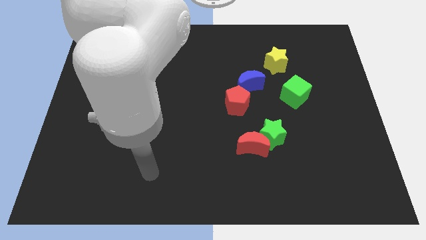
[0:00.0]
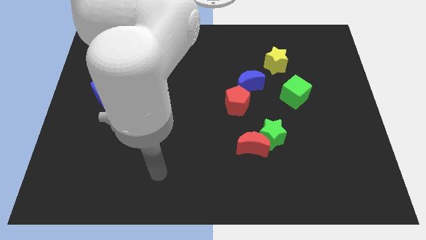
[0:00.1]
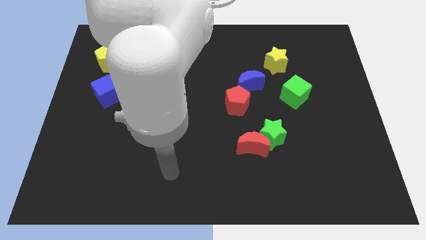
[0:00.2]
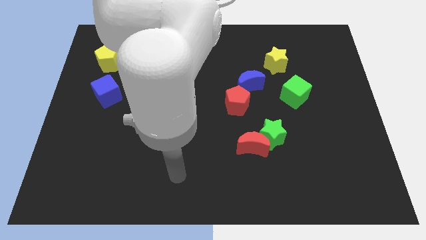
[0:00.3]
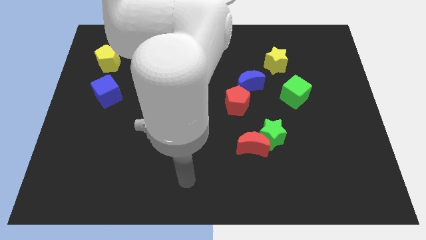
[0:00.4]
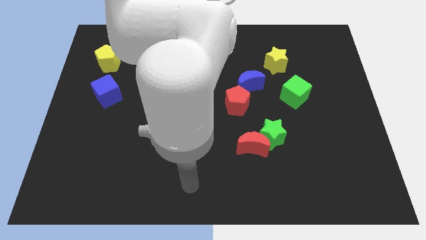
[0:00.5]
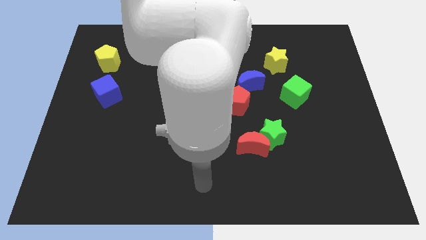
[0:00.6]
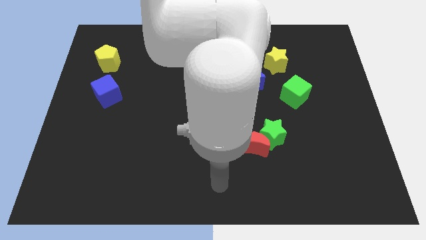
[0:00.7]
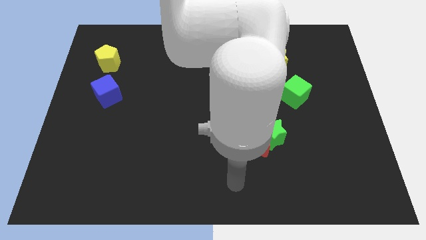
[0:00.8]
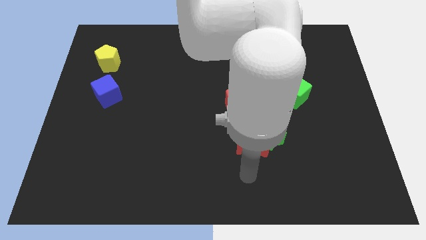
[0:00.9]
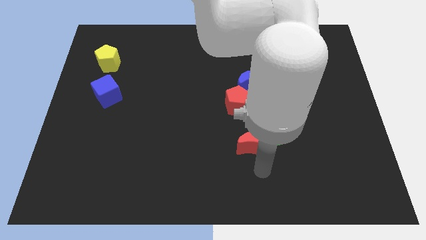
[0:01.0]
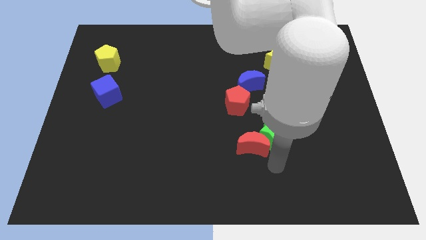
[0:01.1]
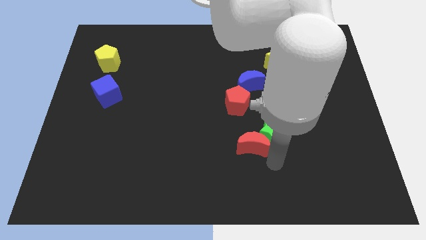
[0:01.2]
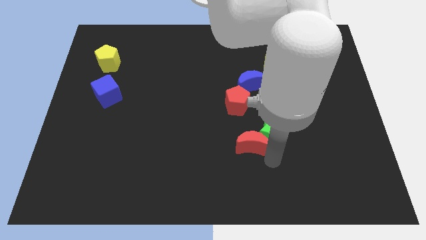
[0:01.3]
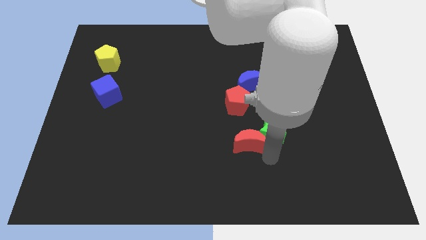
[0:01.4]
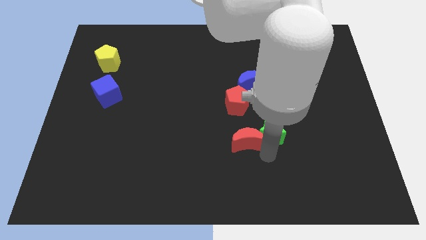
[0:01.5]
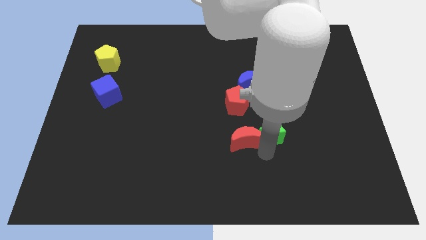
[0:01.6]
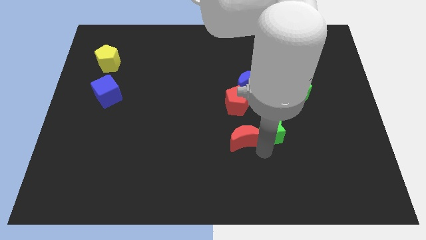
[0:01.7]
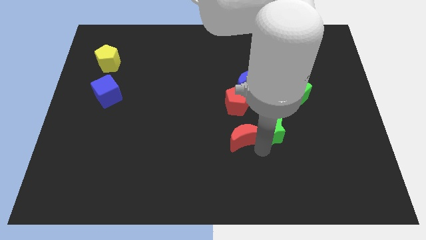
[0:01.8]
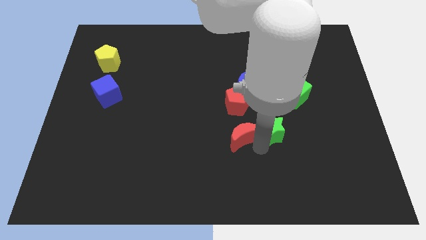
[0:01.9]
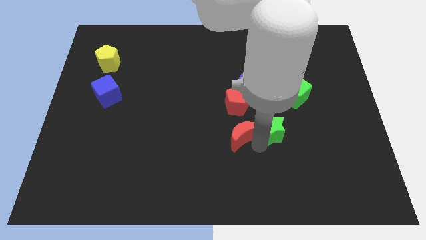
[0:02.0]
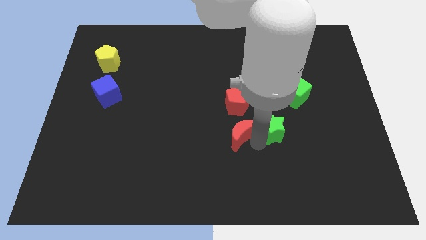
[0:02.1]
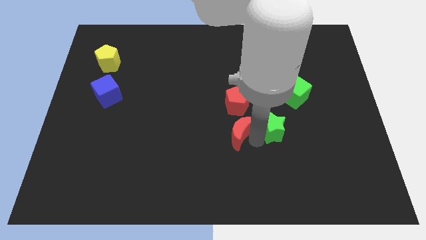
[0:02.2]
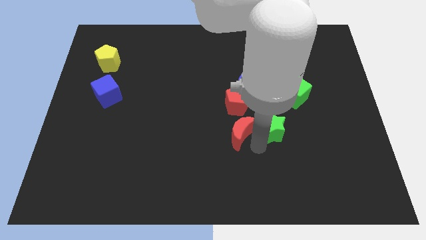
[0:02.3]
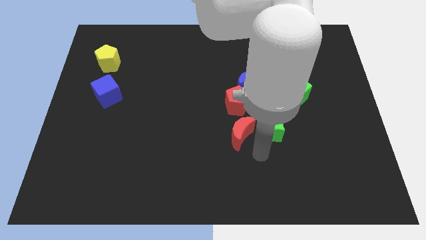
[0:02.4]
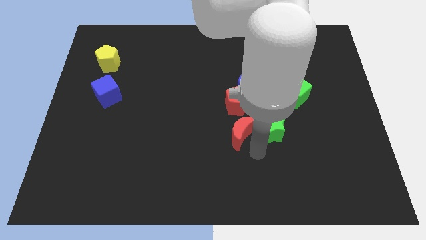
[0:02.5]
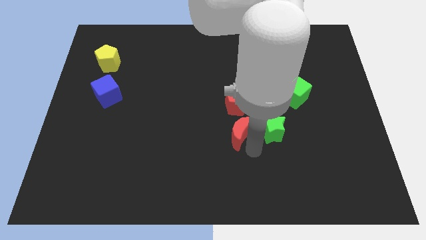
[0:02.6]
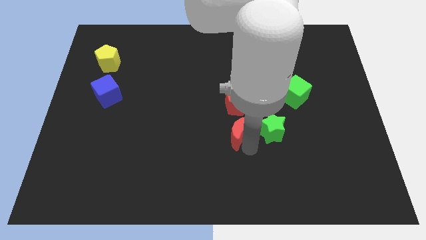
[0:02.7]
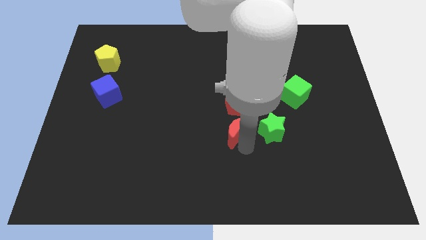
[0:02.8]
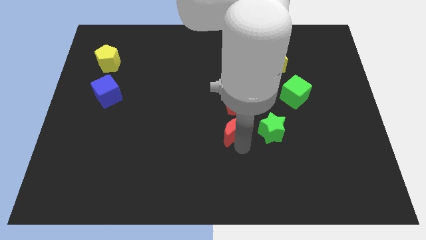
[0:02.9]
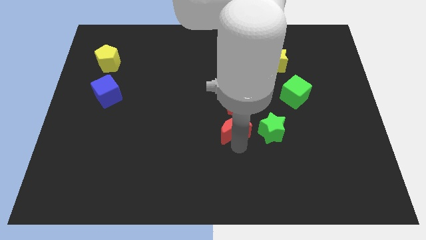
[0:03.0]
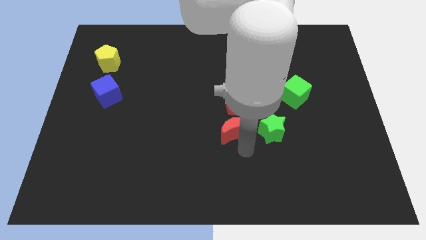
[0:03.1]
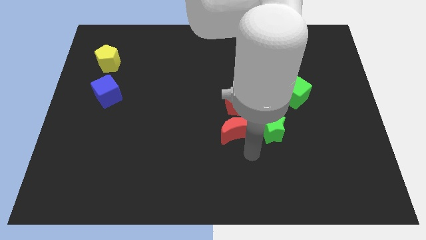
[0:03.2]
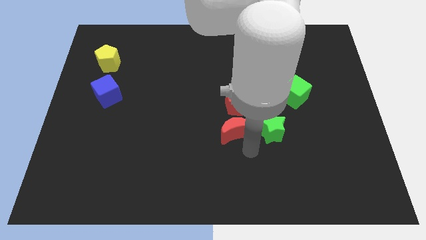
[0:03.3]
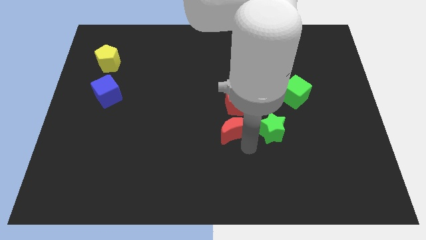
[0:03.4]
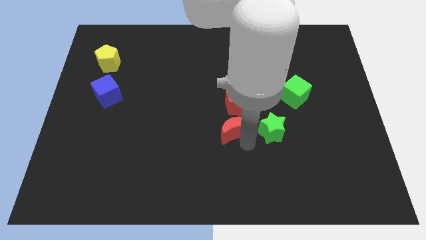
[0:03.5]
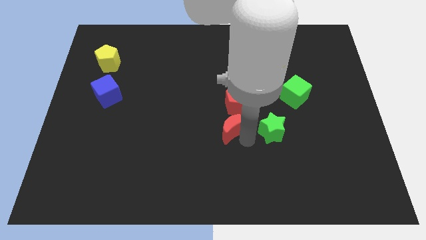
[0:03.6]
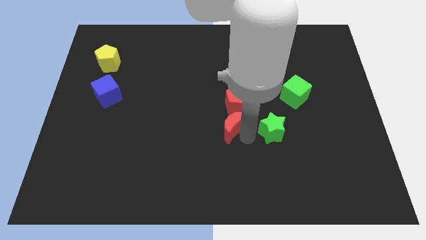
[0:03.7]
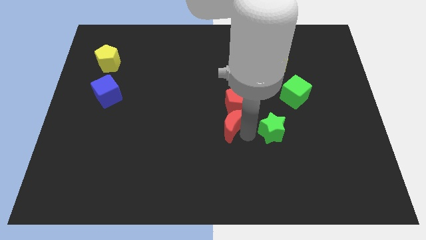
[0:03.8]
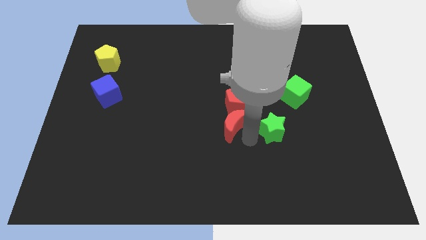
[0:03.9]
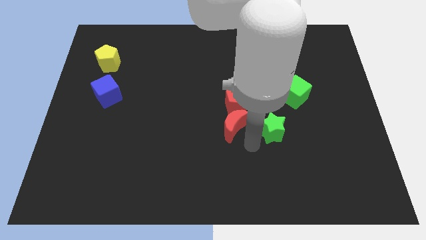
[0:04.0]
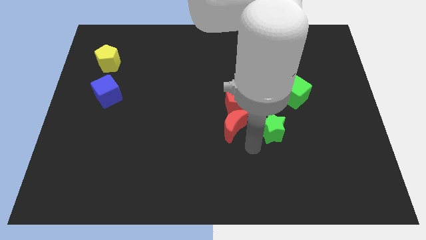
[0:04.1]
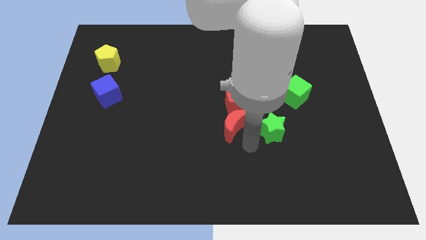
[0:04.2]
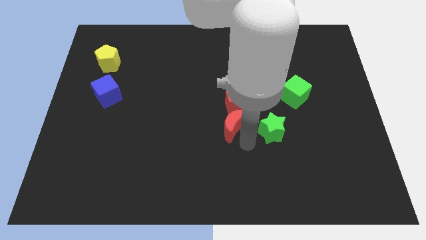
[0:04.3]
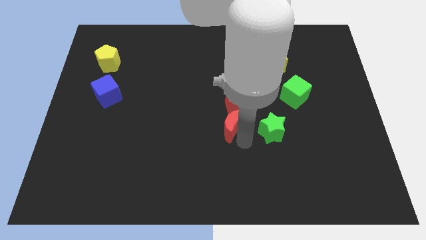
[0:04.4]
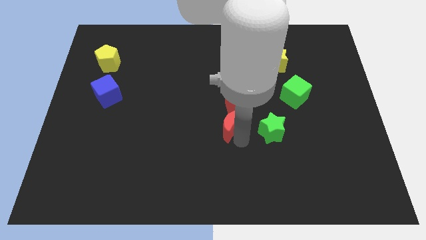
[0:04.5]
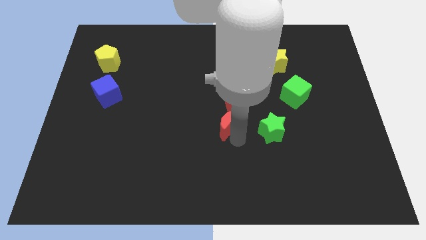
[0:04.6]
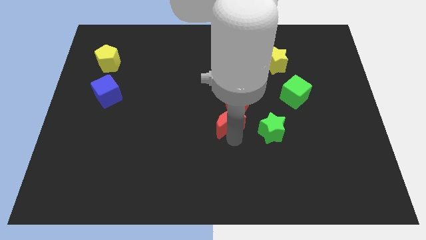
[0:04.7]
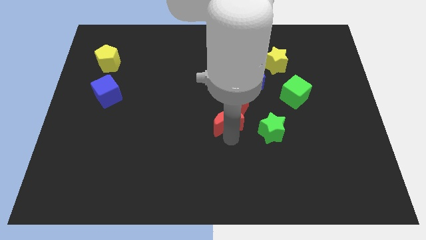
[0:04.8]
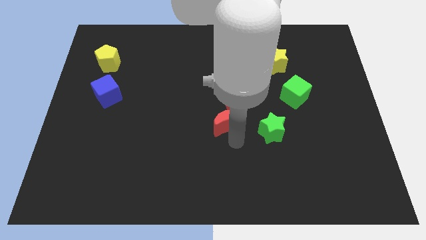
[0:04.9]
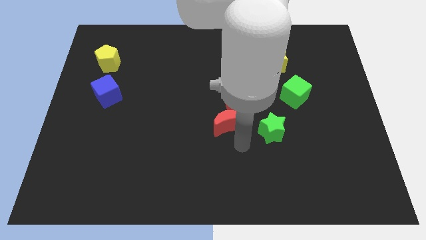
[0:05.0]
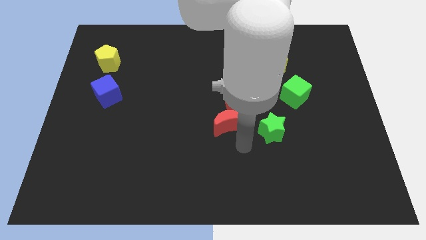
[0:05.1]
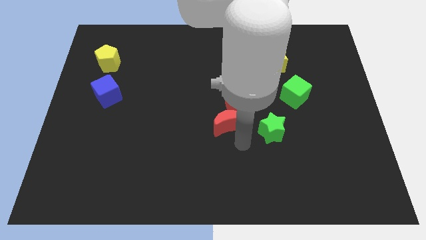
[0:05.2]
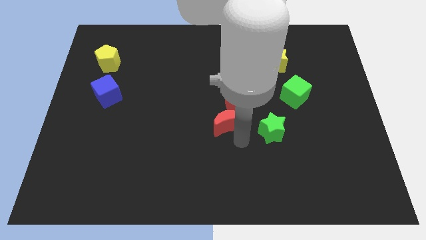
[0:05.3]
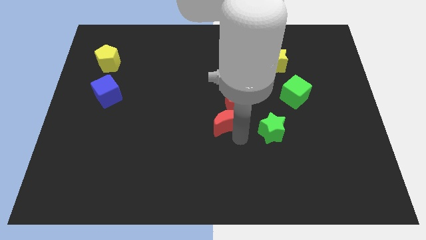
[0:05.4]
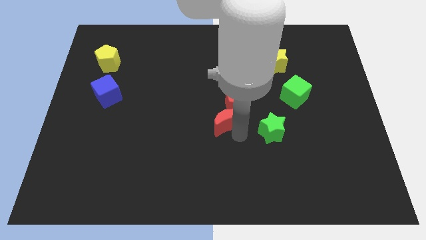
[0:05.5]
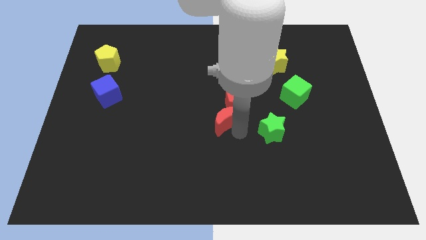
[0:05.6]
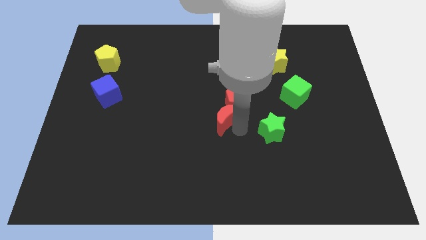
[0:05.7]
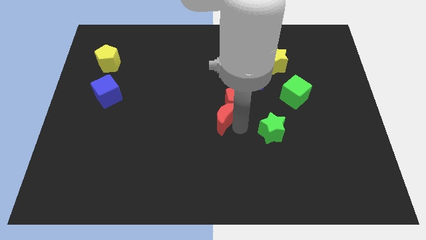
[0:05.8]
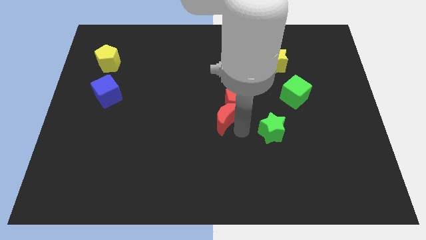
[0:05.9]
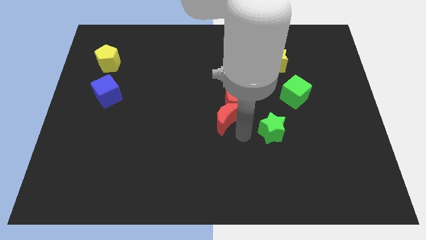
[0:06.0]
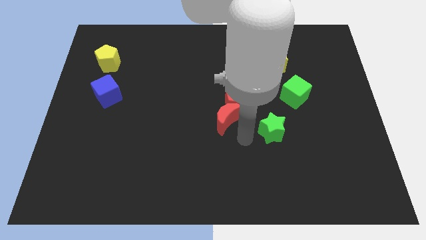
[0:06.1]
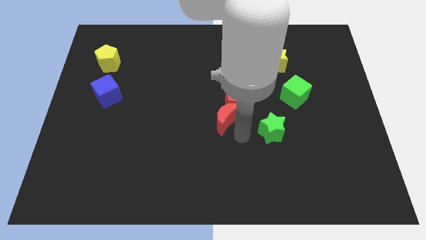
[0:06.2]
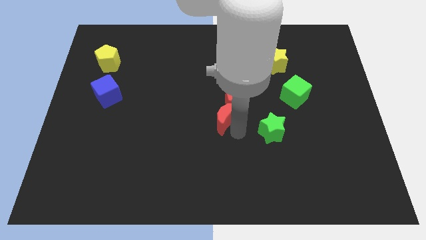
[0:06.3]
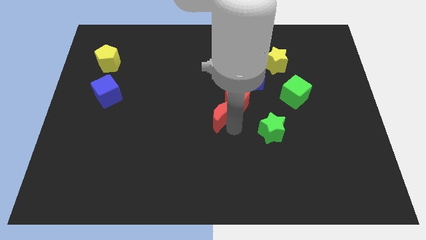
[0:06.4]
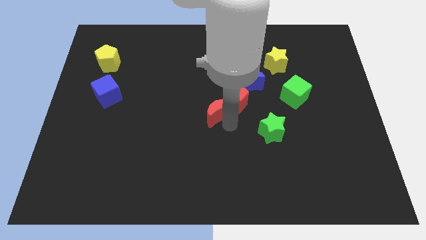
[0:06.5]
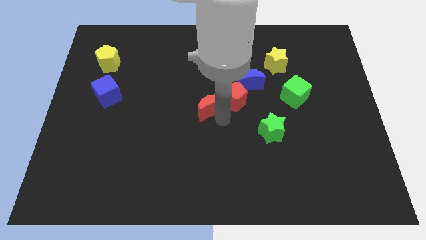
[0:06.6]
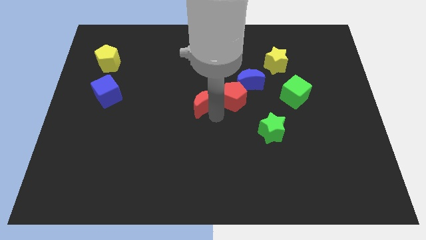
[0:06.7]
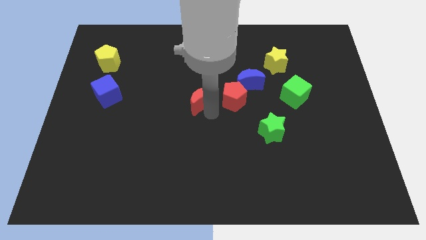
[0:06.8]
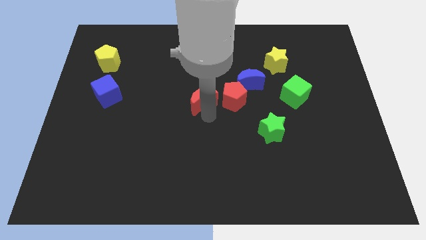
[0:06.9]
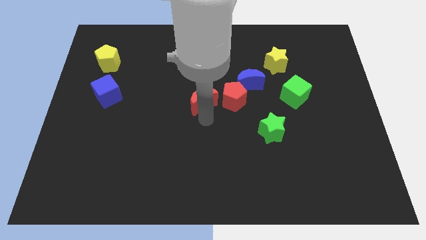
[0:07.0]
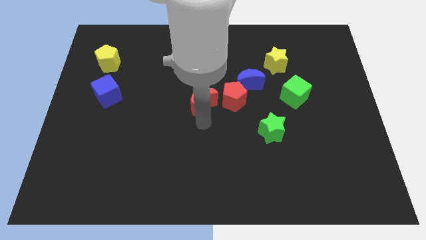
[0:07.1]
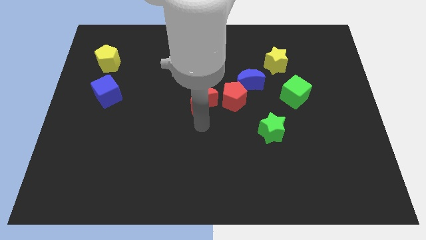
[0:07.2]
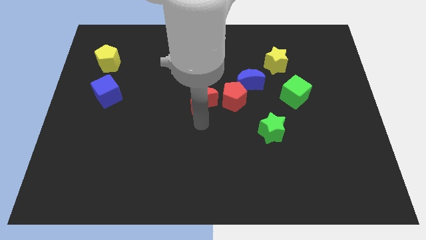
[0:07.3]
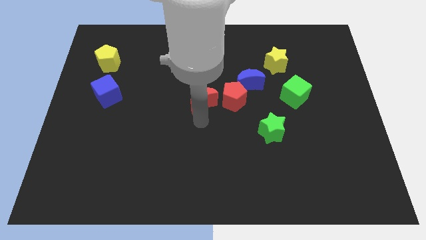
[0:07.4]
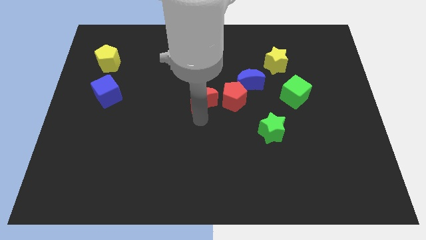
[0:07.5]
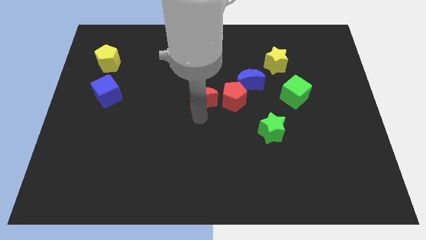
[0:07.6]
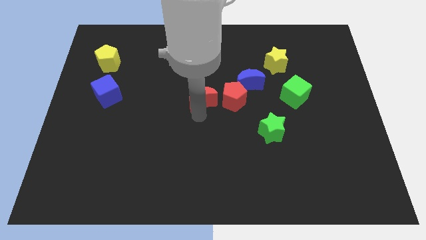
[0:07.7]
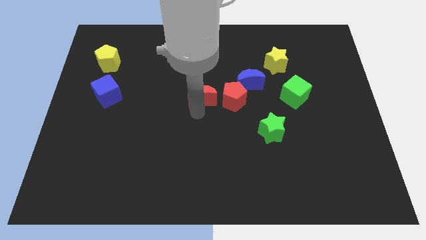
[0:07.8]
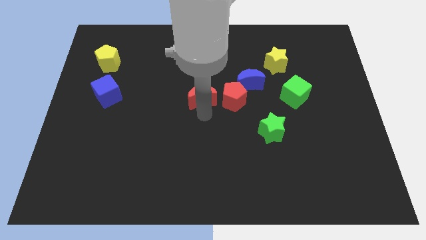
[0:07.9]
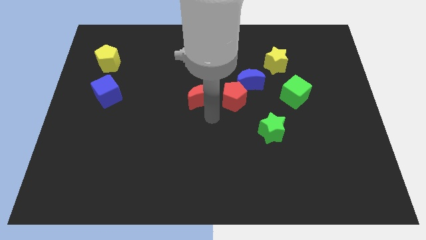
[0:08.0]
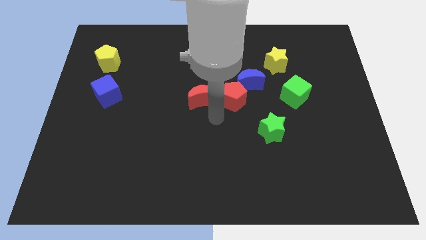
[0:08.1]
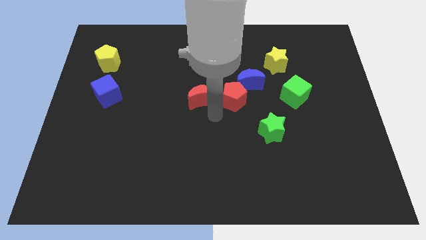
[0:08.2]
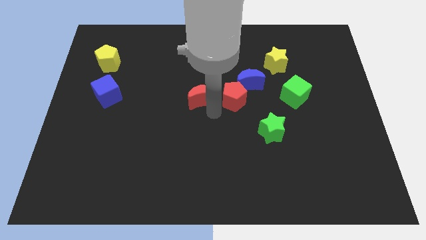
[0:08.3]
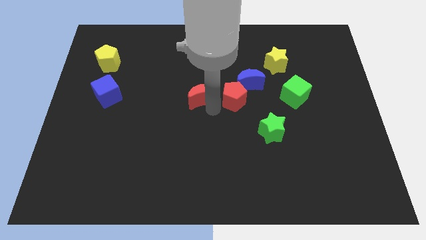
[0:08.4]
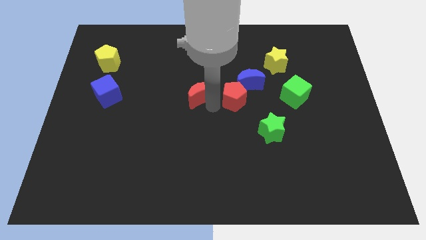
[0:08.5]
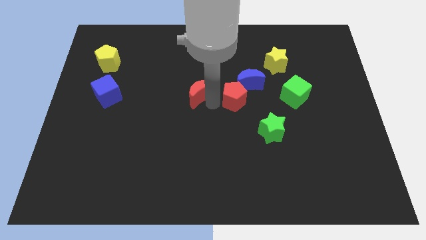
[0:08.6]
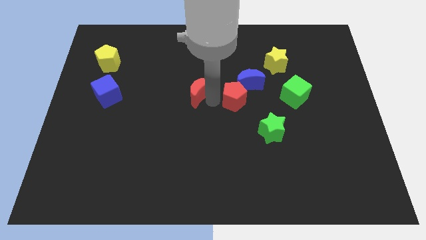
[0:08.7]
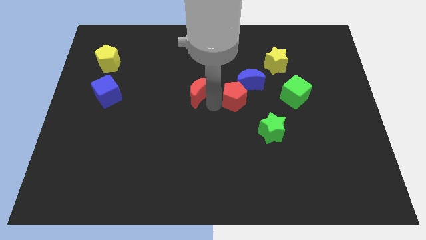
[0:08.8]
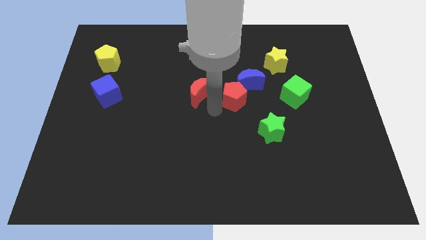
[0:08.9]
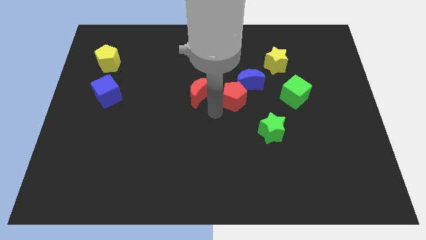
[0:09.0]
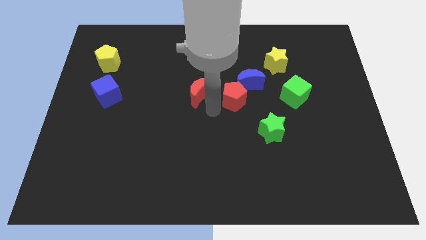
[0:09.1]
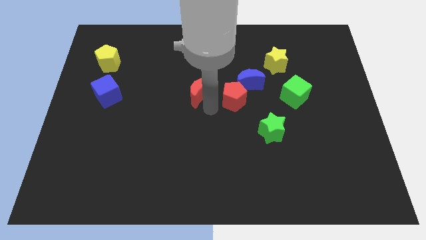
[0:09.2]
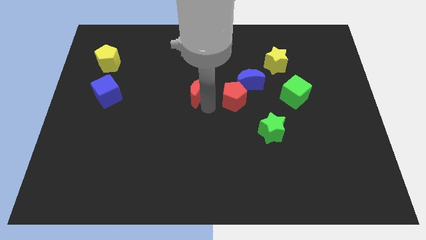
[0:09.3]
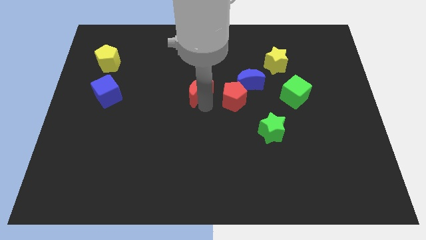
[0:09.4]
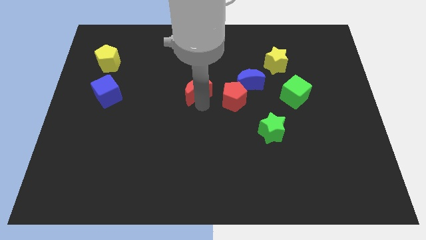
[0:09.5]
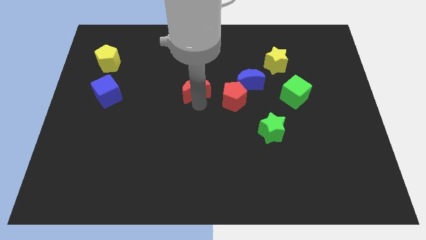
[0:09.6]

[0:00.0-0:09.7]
move the red moon diagonally up and to the left
